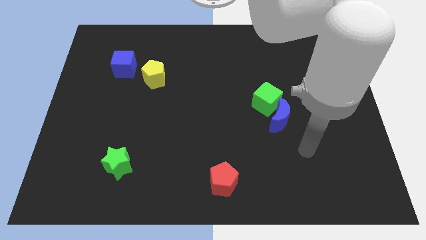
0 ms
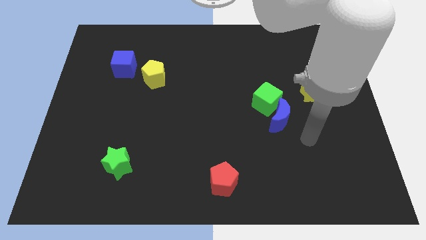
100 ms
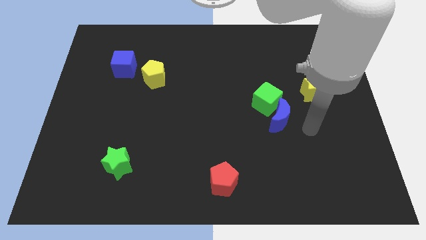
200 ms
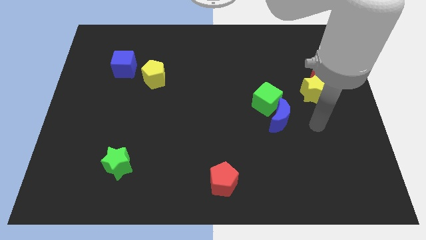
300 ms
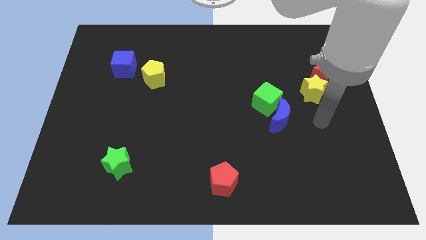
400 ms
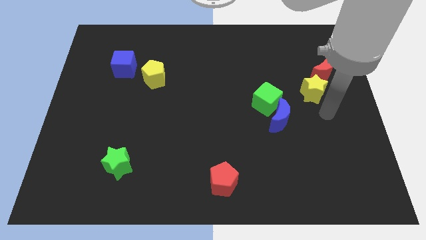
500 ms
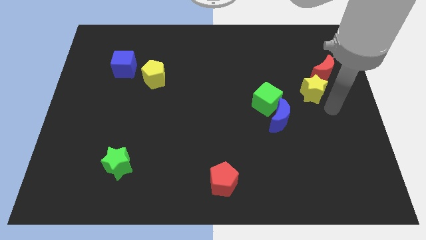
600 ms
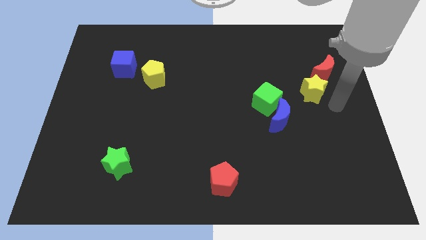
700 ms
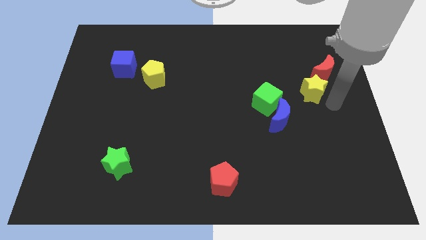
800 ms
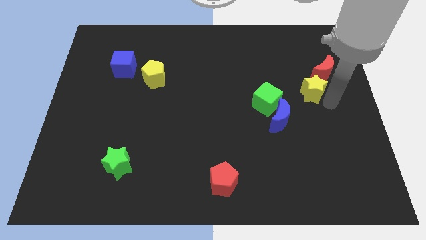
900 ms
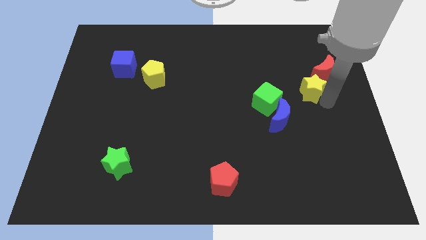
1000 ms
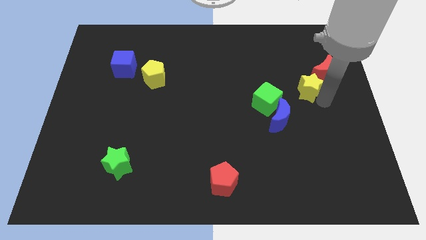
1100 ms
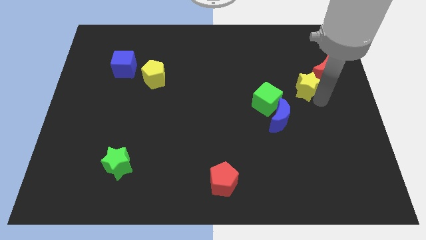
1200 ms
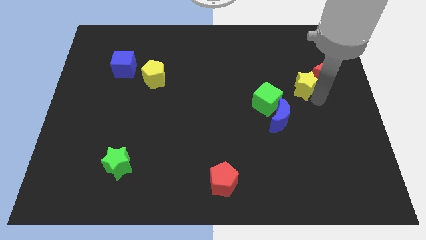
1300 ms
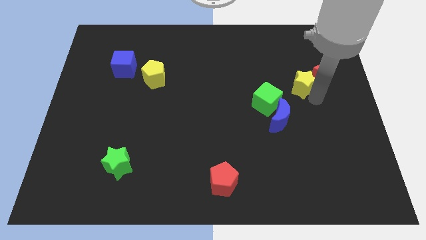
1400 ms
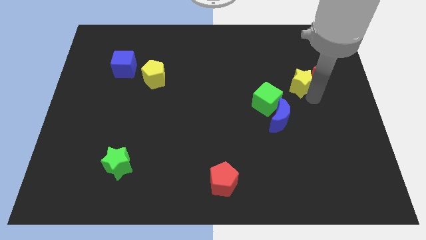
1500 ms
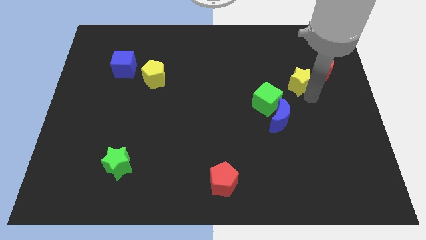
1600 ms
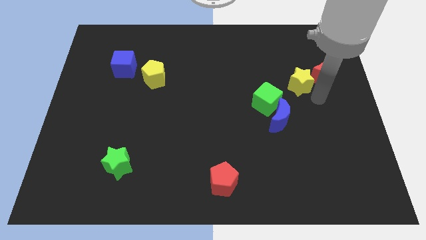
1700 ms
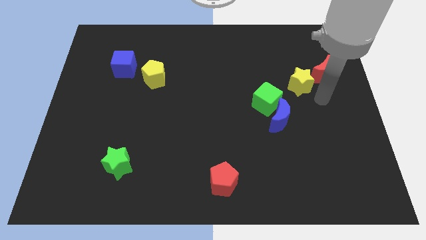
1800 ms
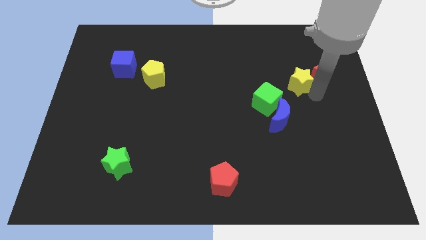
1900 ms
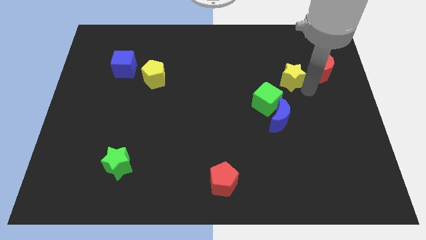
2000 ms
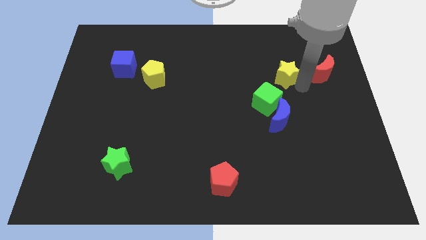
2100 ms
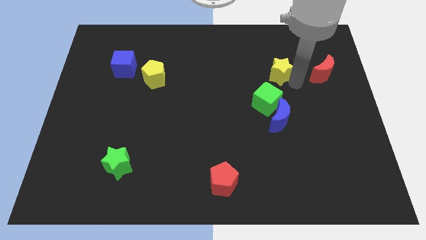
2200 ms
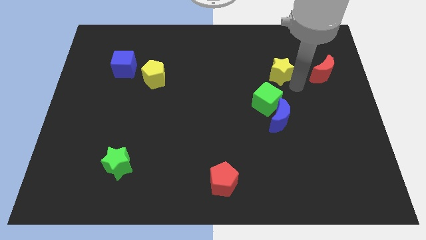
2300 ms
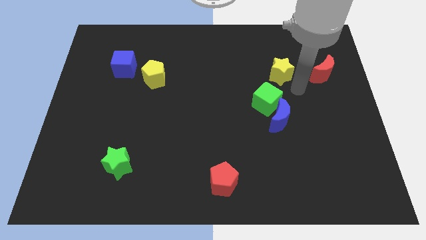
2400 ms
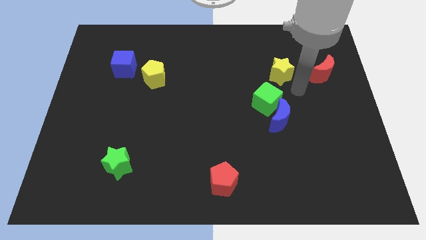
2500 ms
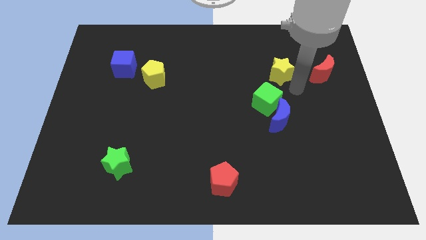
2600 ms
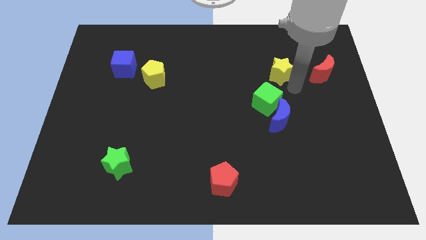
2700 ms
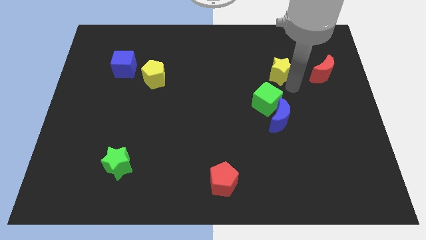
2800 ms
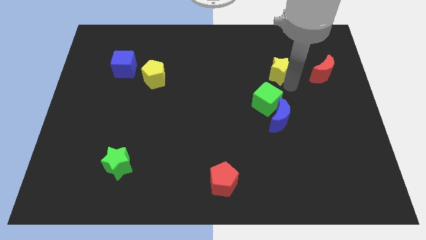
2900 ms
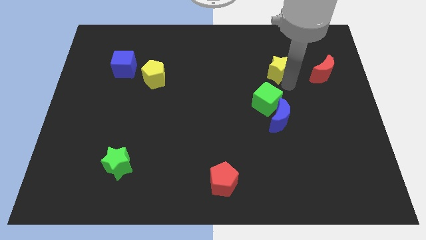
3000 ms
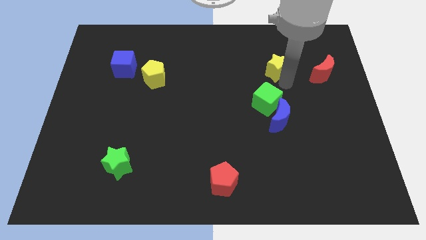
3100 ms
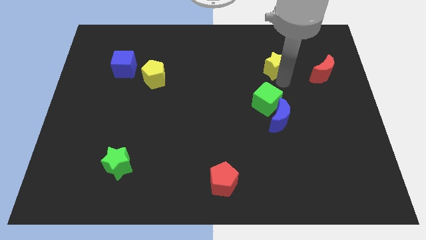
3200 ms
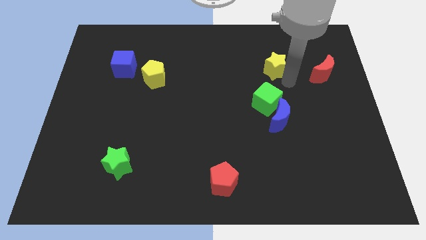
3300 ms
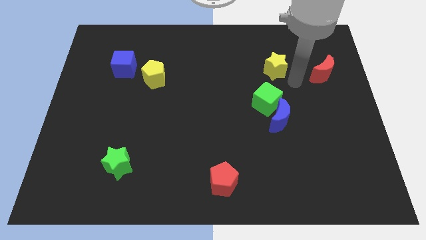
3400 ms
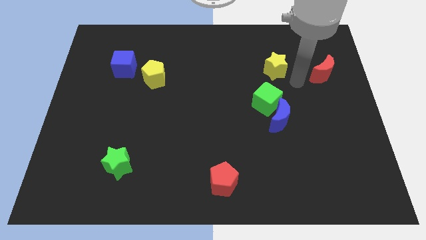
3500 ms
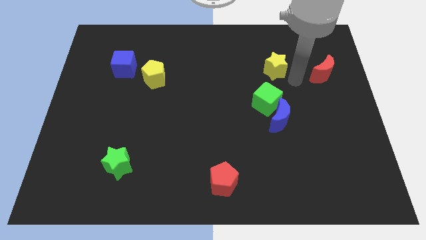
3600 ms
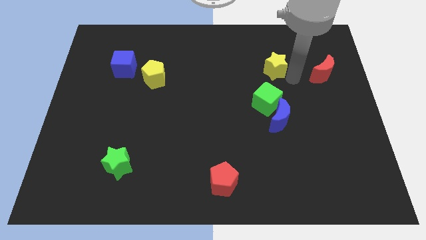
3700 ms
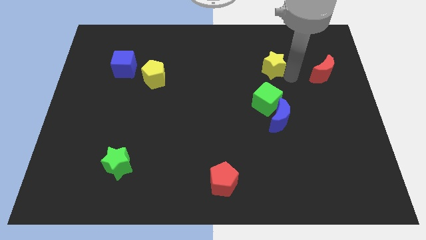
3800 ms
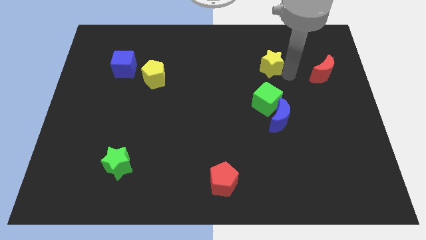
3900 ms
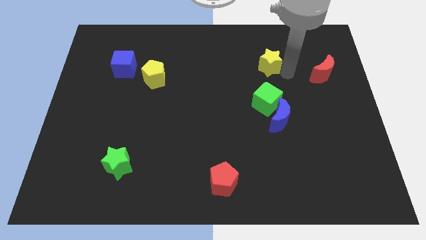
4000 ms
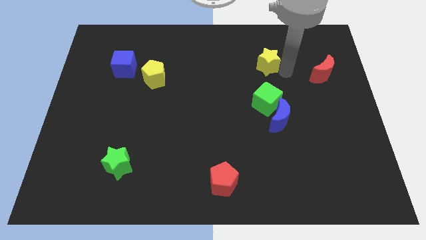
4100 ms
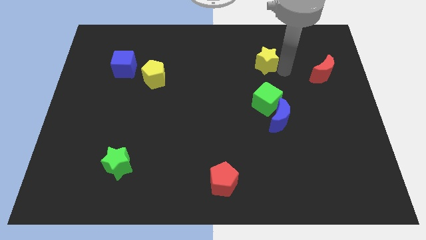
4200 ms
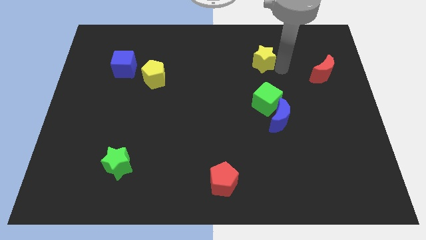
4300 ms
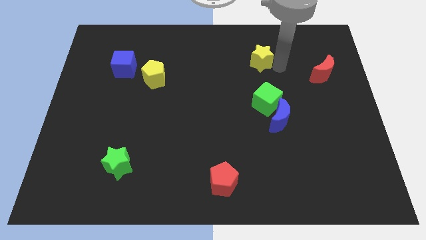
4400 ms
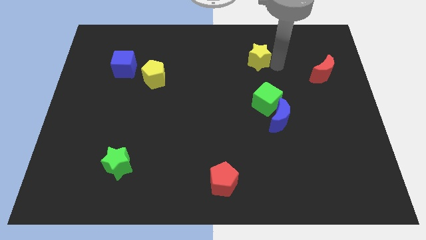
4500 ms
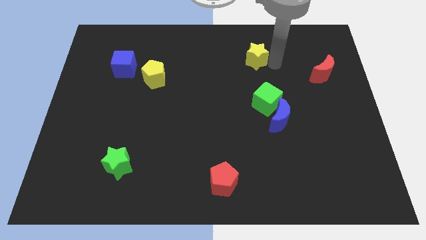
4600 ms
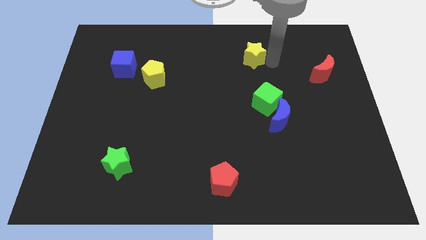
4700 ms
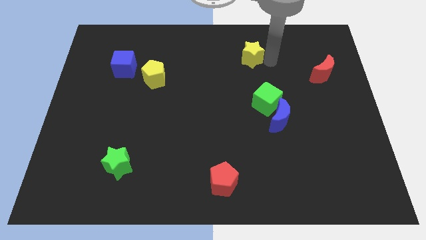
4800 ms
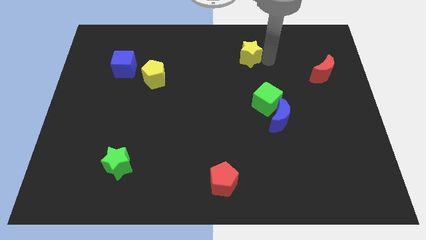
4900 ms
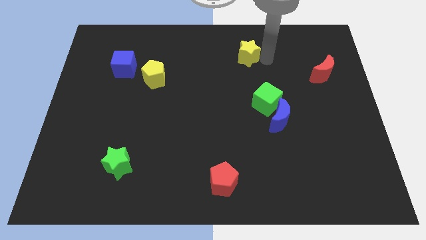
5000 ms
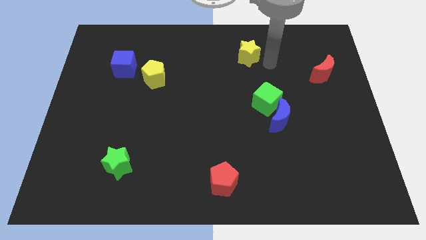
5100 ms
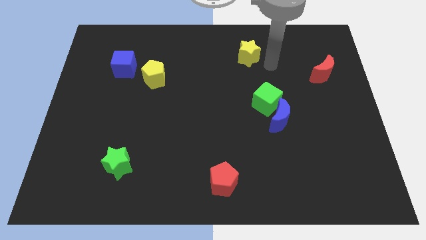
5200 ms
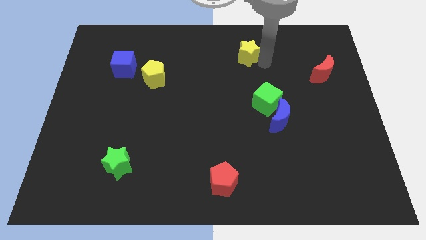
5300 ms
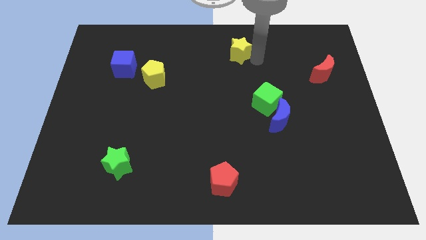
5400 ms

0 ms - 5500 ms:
slide the yellow star to the towards your base
